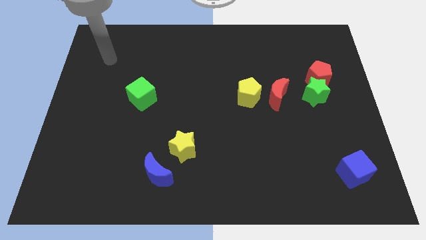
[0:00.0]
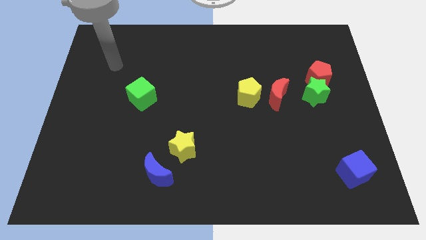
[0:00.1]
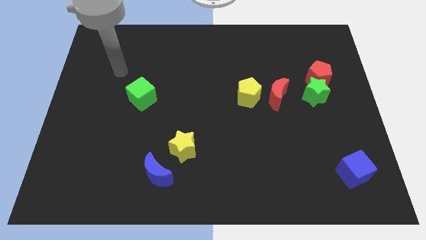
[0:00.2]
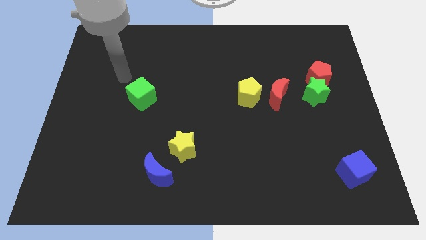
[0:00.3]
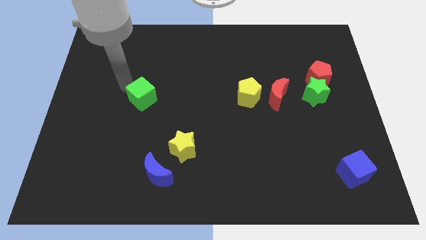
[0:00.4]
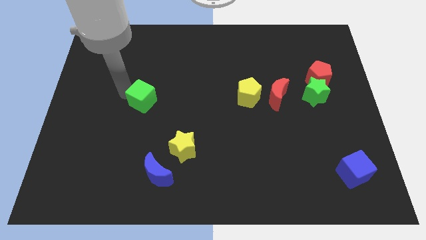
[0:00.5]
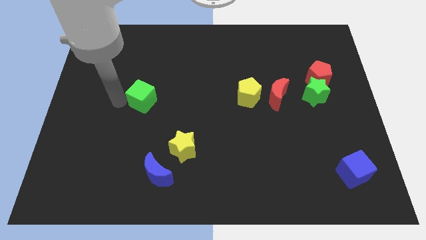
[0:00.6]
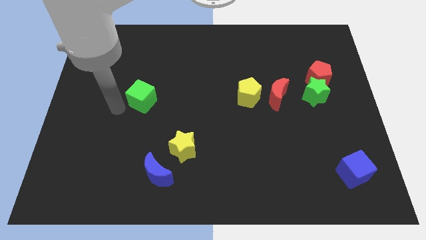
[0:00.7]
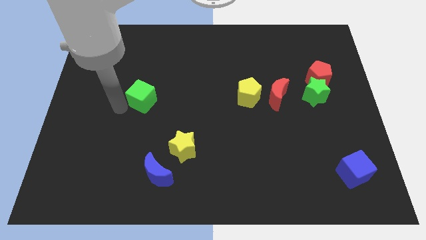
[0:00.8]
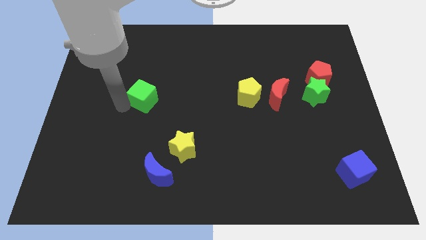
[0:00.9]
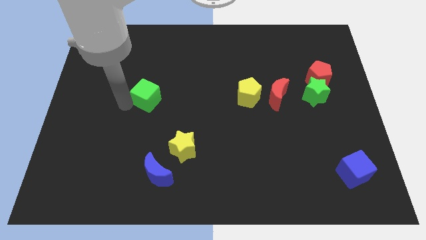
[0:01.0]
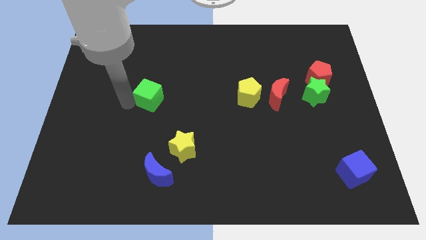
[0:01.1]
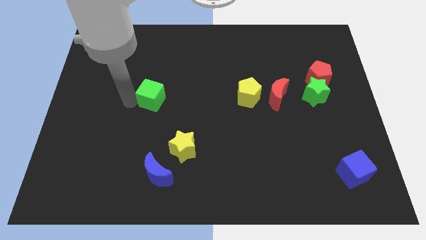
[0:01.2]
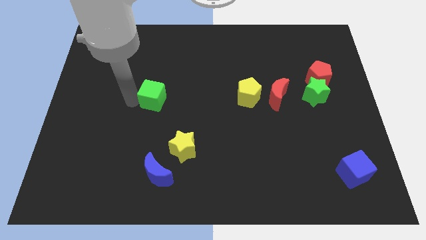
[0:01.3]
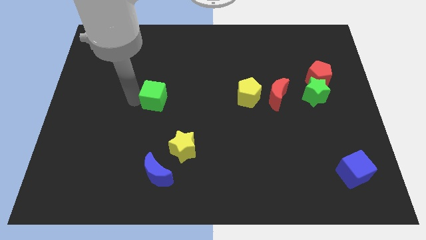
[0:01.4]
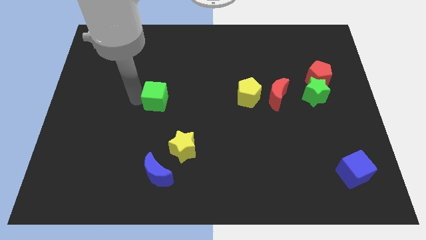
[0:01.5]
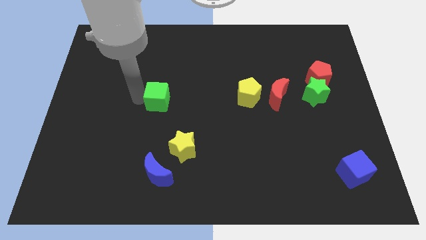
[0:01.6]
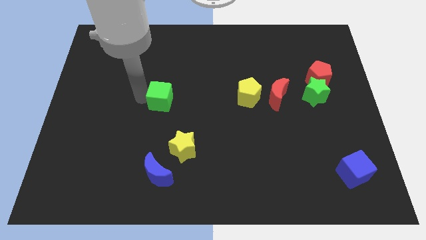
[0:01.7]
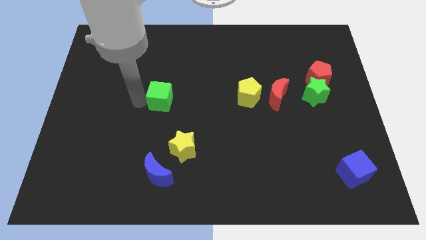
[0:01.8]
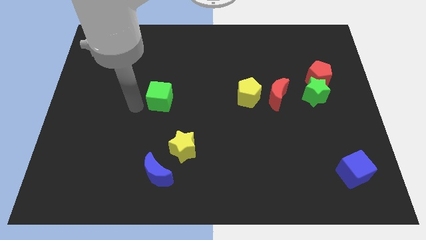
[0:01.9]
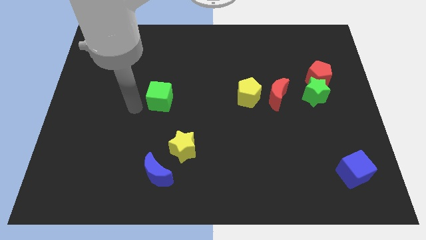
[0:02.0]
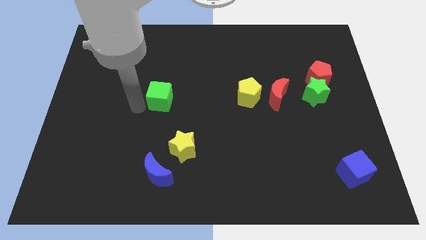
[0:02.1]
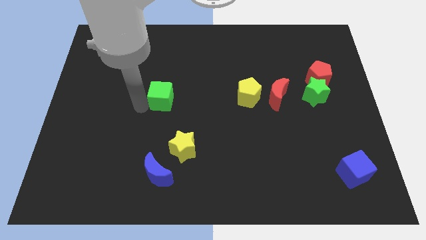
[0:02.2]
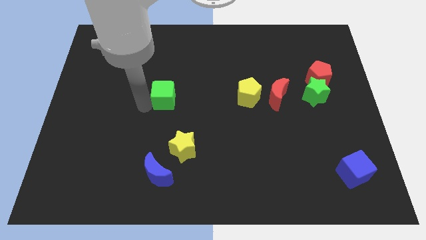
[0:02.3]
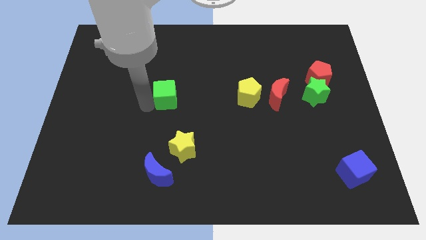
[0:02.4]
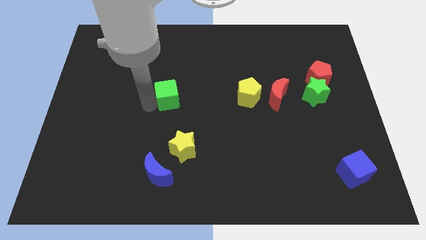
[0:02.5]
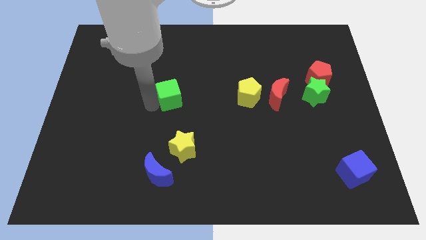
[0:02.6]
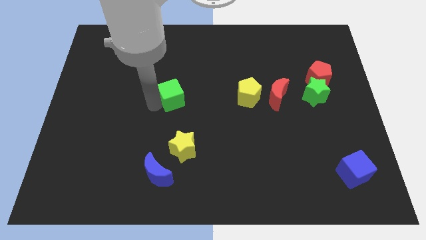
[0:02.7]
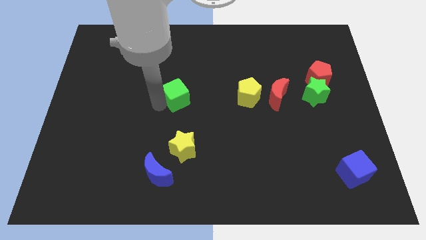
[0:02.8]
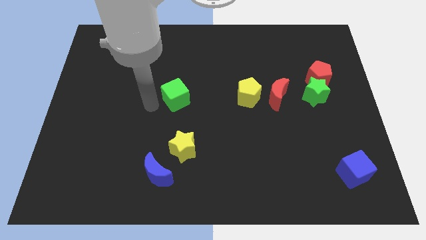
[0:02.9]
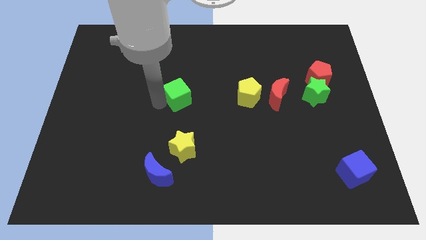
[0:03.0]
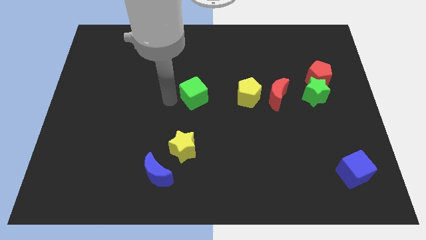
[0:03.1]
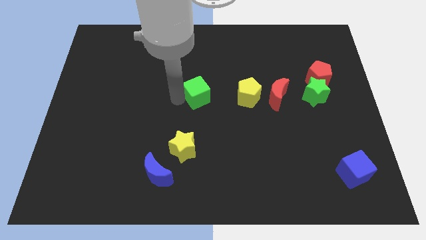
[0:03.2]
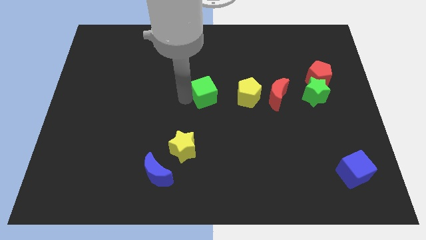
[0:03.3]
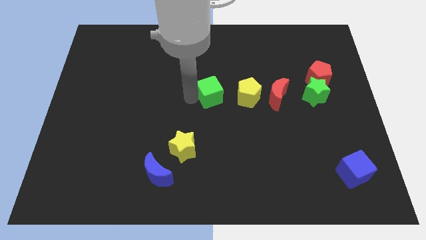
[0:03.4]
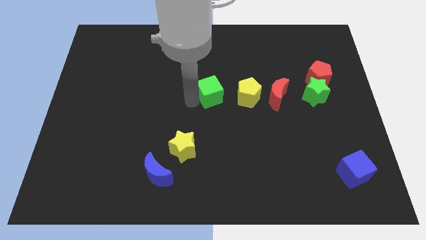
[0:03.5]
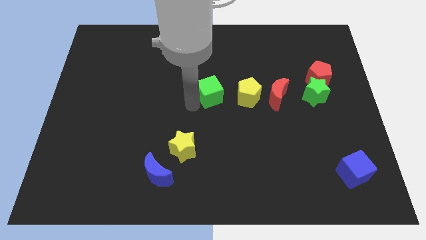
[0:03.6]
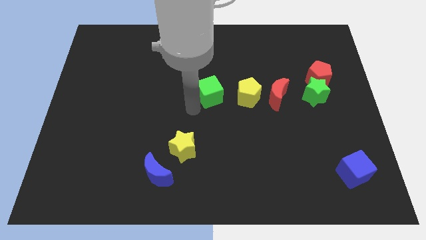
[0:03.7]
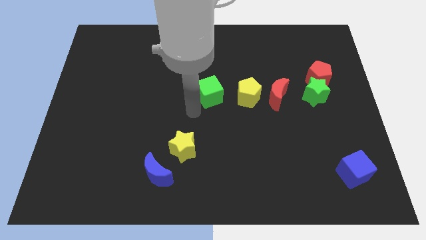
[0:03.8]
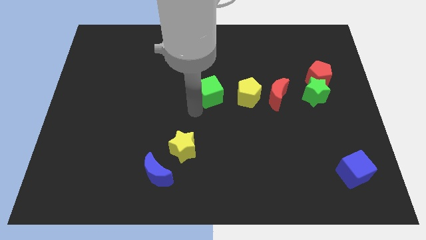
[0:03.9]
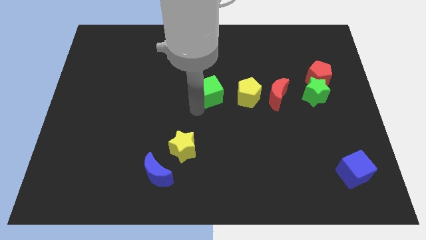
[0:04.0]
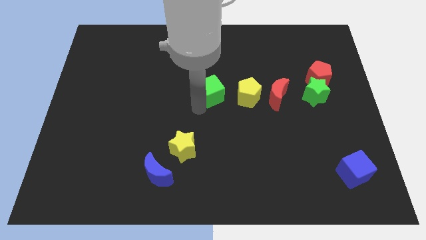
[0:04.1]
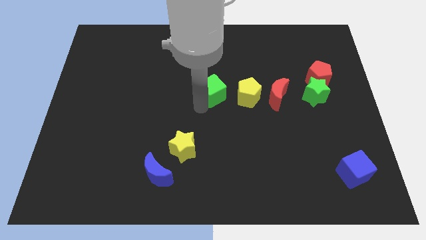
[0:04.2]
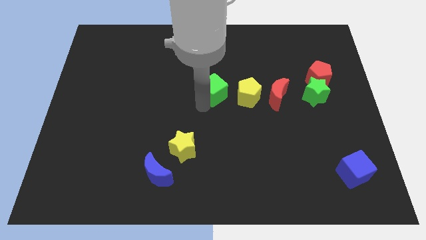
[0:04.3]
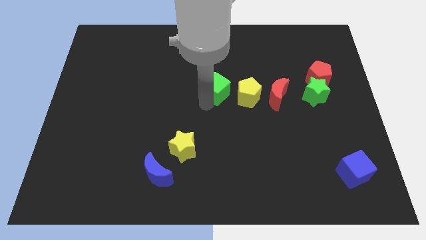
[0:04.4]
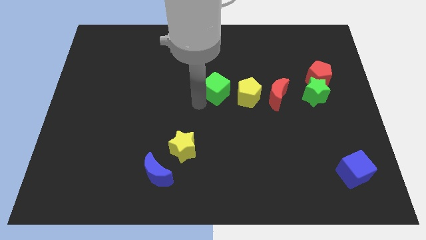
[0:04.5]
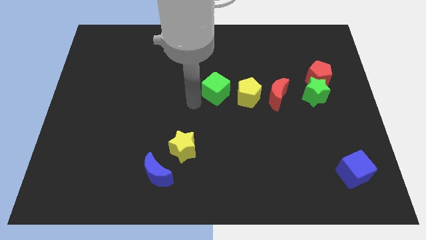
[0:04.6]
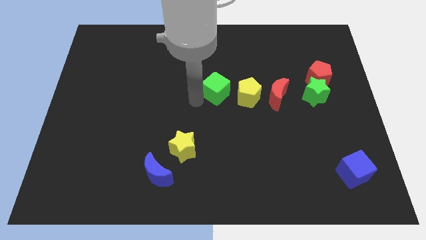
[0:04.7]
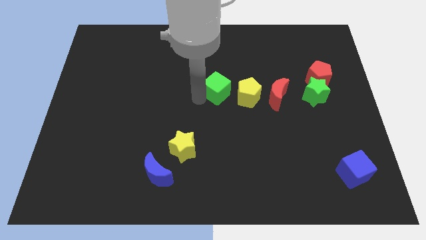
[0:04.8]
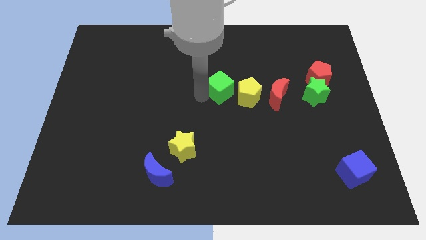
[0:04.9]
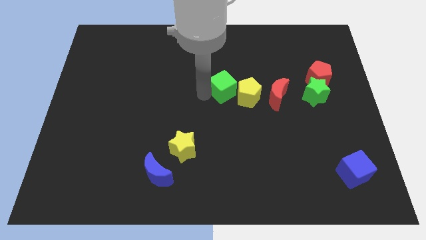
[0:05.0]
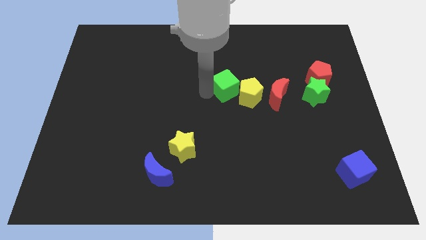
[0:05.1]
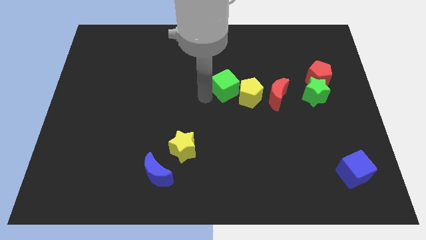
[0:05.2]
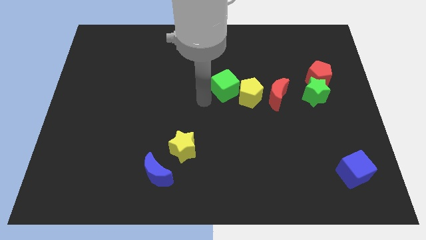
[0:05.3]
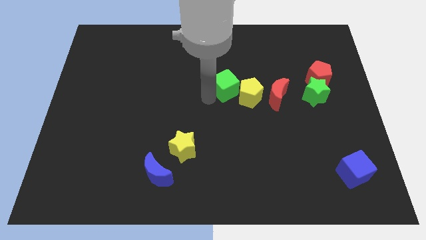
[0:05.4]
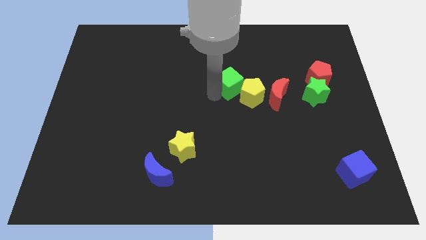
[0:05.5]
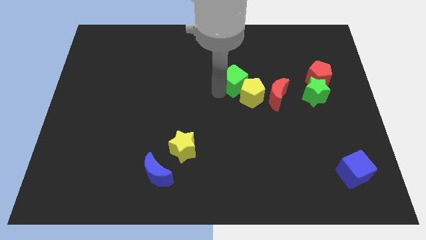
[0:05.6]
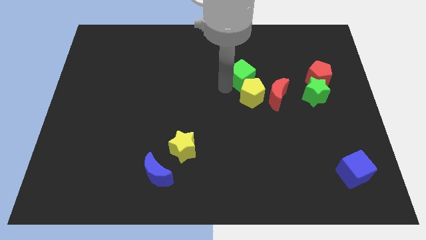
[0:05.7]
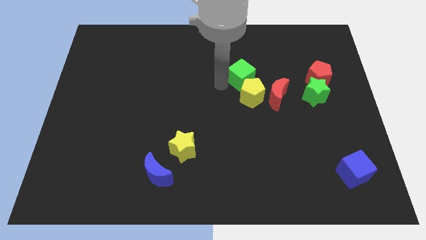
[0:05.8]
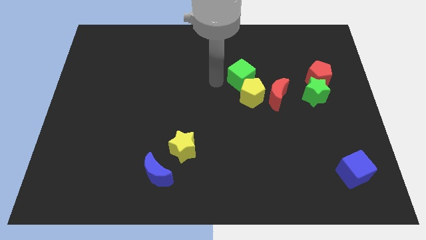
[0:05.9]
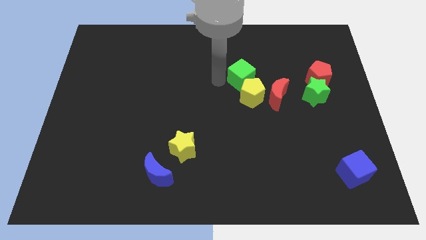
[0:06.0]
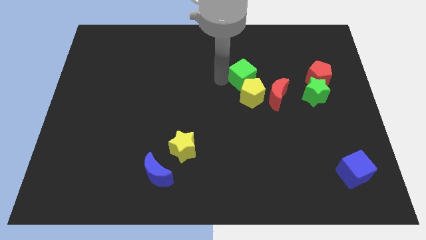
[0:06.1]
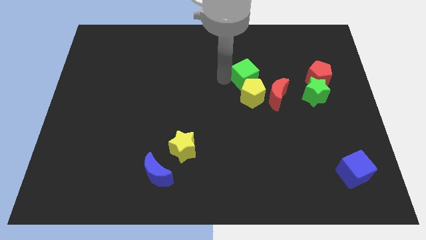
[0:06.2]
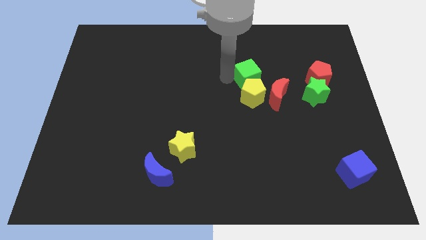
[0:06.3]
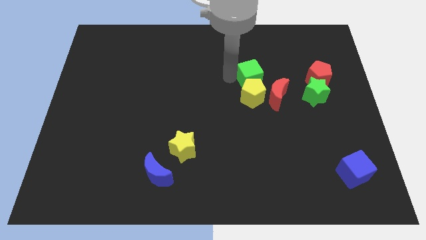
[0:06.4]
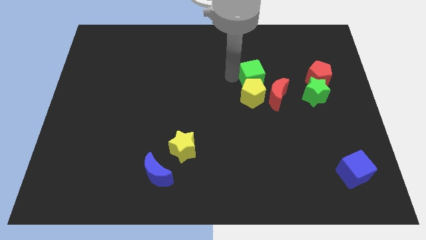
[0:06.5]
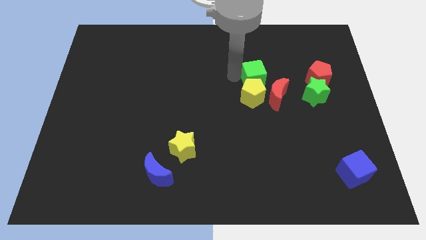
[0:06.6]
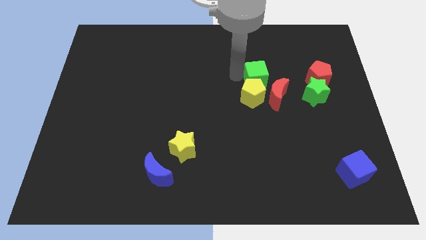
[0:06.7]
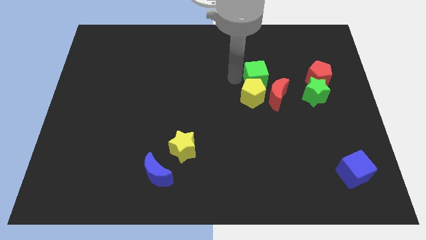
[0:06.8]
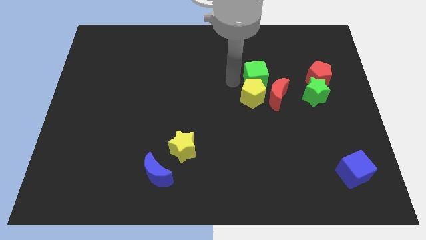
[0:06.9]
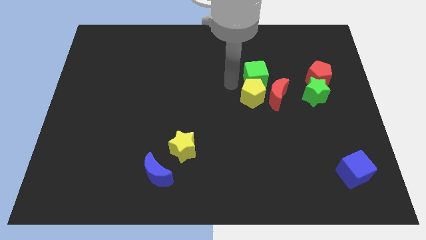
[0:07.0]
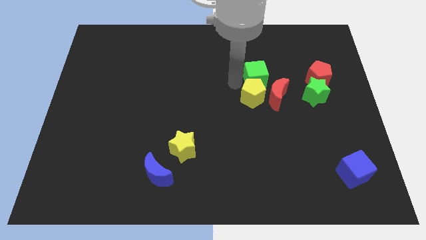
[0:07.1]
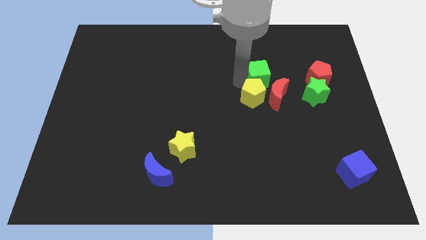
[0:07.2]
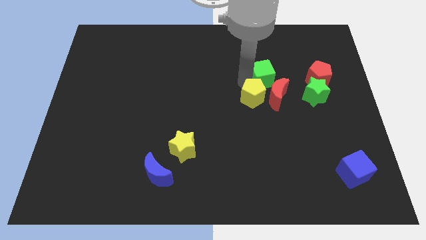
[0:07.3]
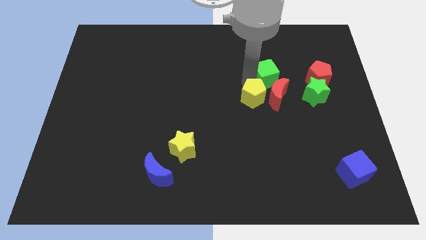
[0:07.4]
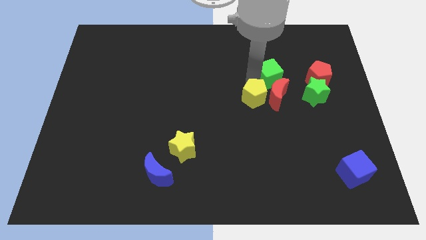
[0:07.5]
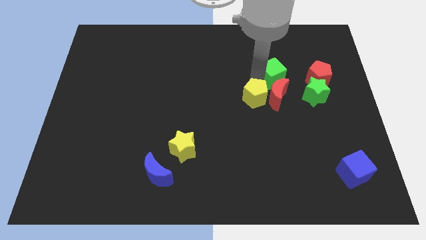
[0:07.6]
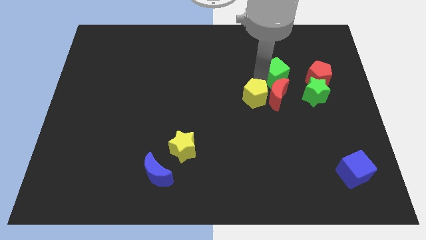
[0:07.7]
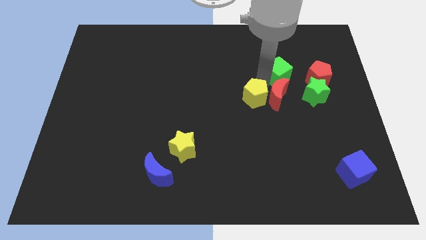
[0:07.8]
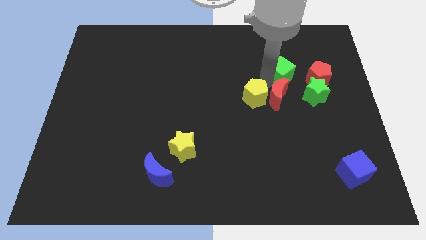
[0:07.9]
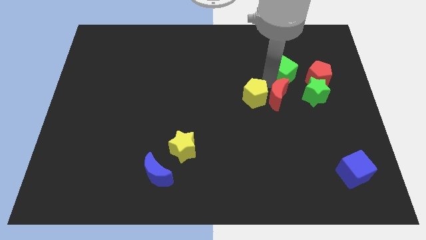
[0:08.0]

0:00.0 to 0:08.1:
put the green cube to the top left of the red pentagon
